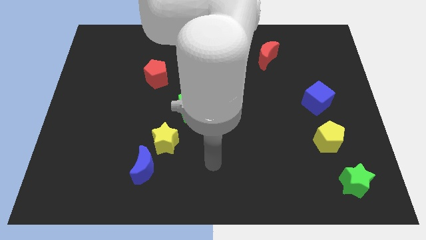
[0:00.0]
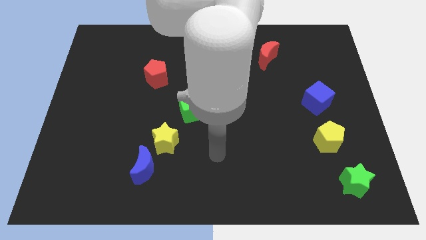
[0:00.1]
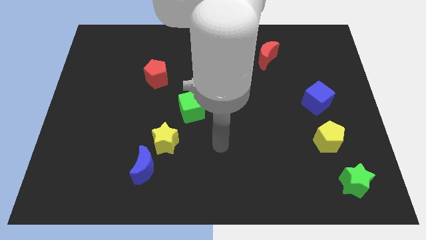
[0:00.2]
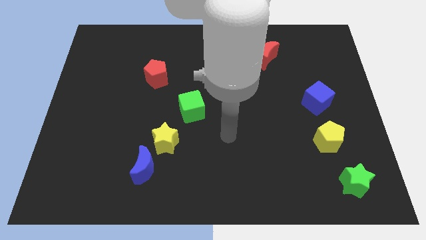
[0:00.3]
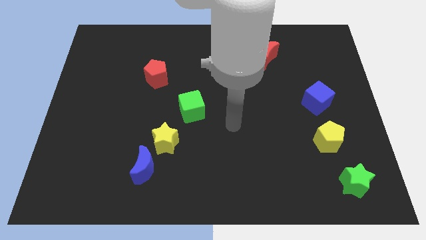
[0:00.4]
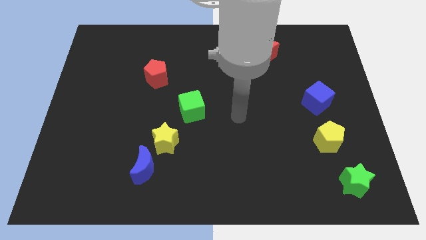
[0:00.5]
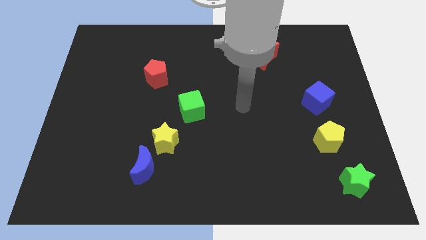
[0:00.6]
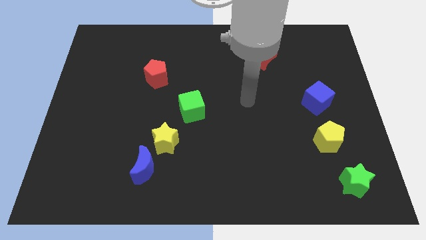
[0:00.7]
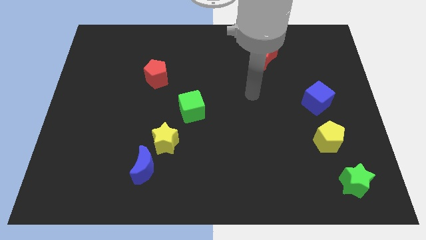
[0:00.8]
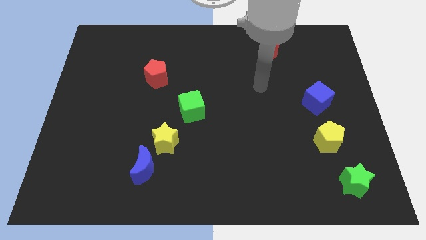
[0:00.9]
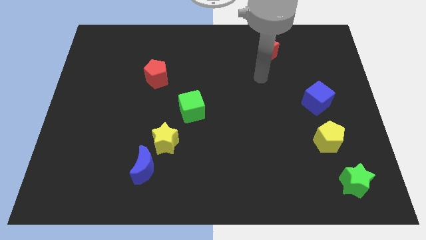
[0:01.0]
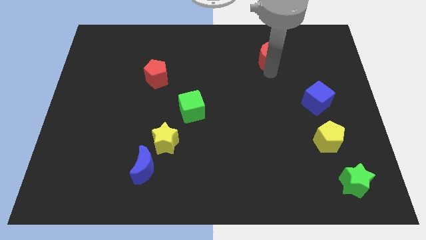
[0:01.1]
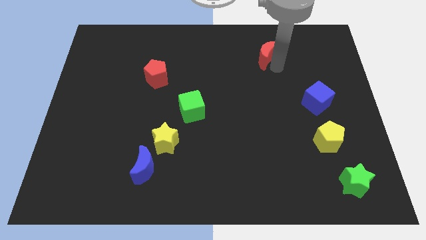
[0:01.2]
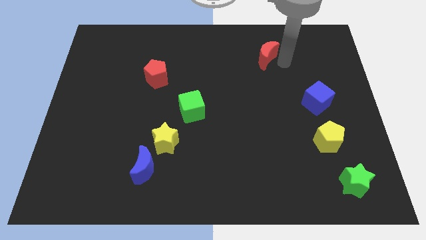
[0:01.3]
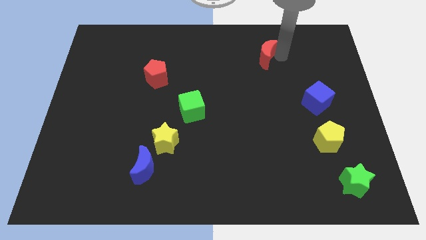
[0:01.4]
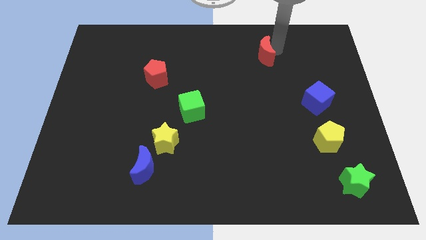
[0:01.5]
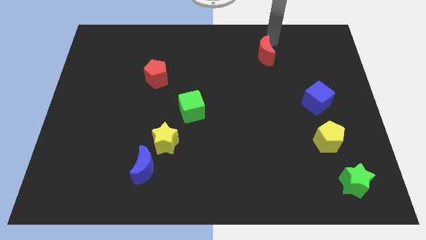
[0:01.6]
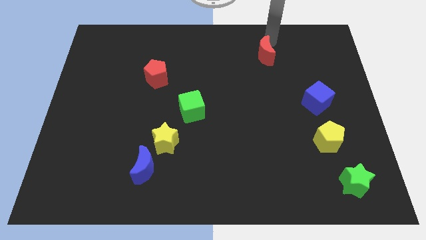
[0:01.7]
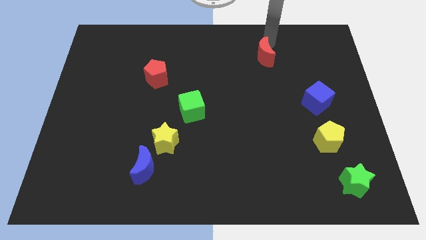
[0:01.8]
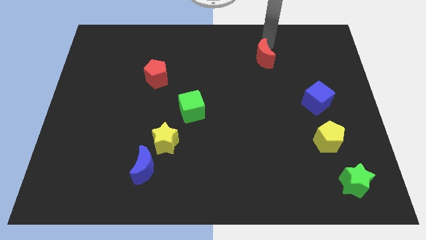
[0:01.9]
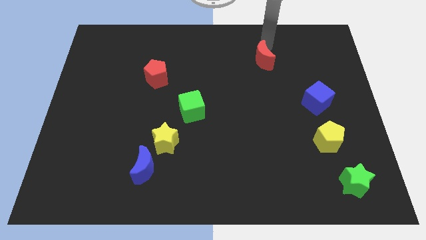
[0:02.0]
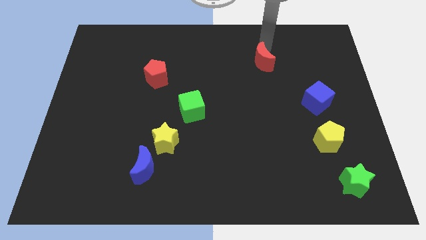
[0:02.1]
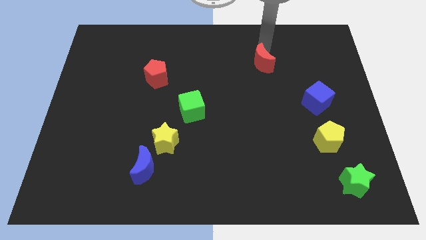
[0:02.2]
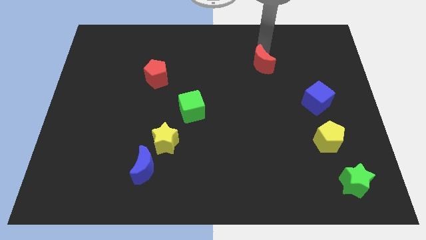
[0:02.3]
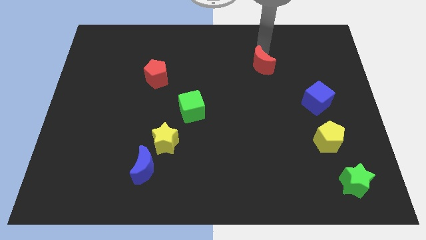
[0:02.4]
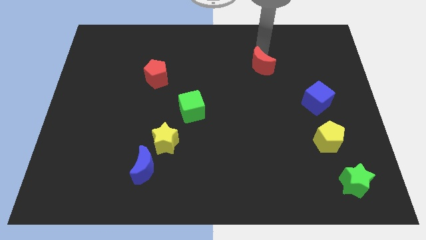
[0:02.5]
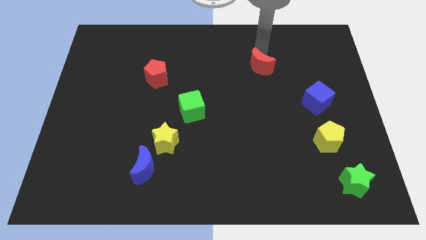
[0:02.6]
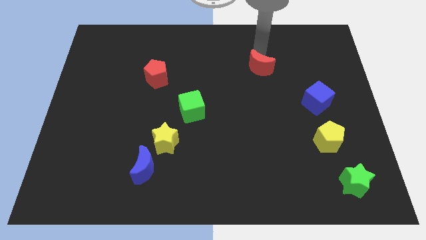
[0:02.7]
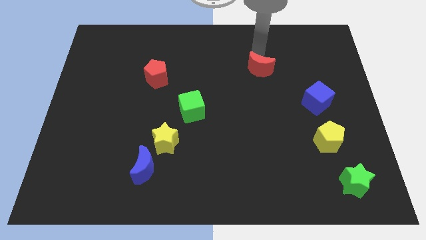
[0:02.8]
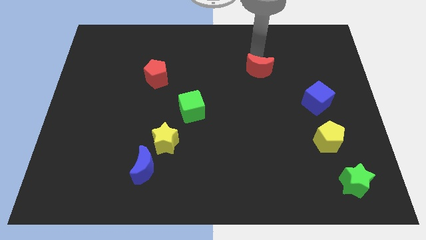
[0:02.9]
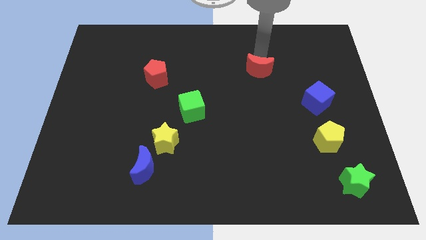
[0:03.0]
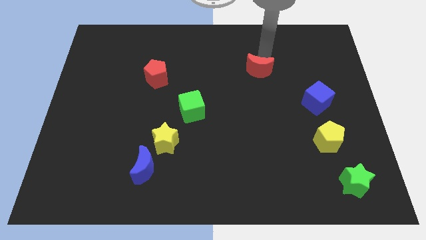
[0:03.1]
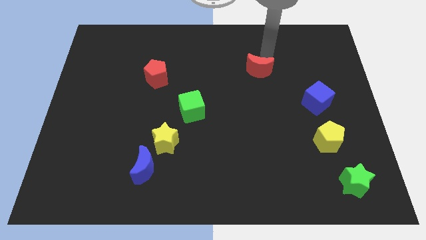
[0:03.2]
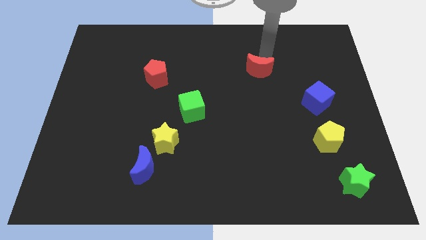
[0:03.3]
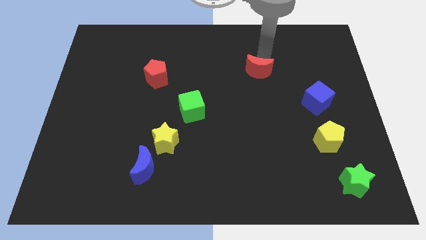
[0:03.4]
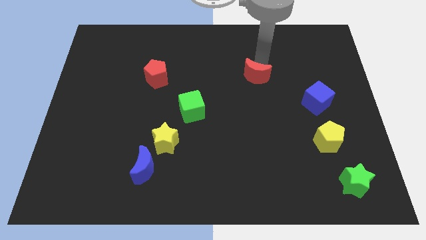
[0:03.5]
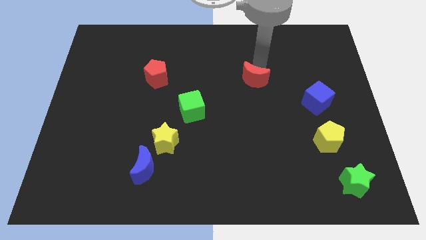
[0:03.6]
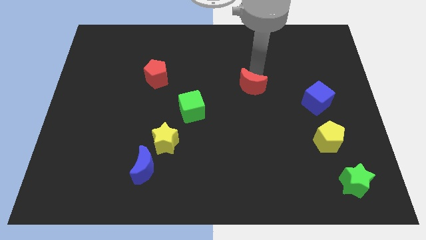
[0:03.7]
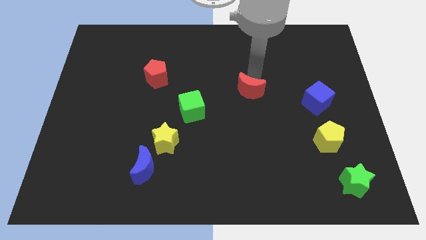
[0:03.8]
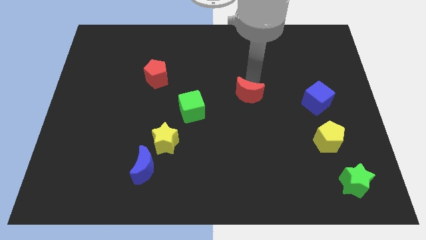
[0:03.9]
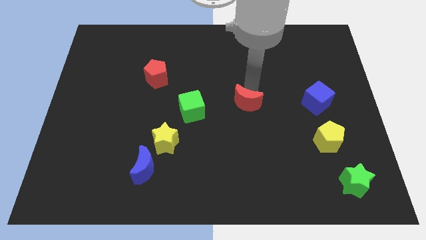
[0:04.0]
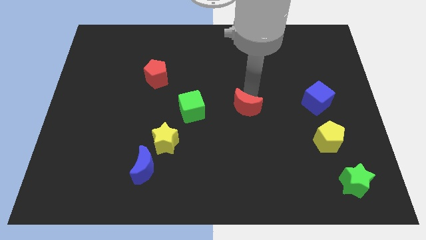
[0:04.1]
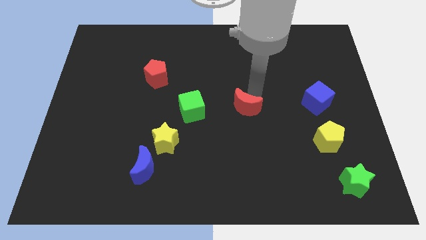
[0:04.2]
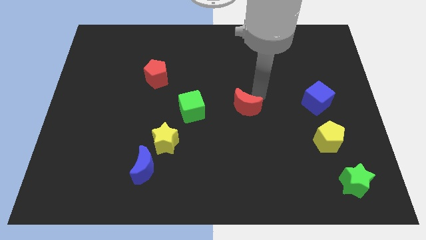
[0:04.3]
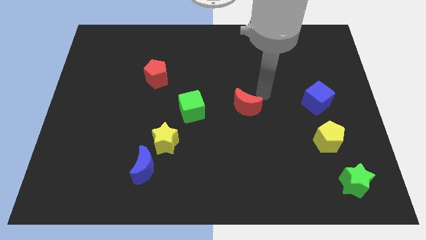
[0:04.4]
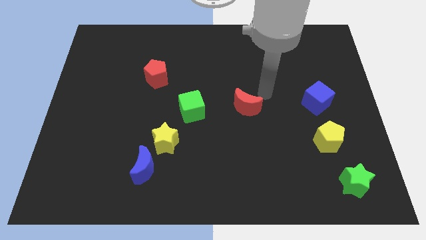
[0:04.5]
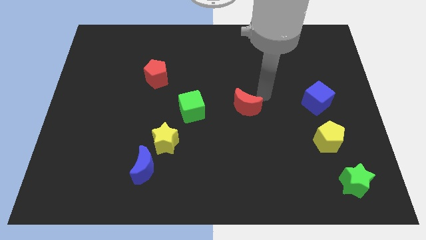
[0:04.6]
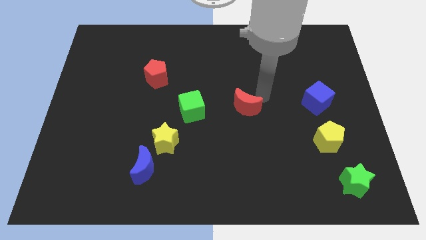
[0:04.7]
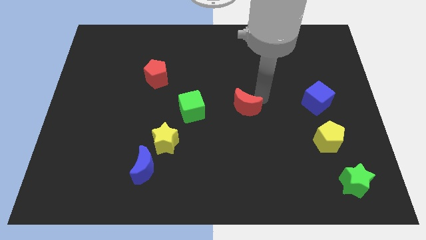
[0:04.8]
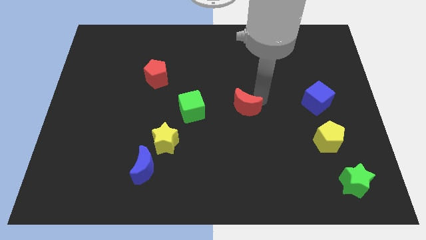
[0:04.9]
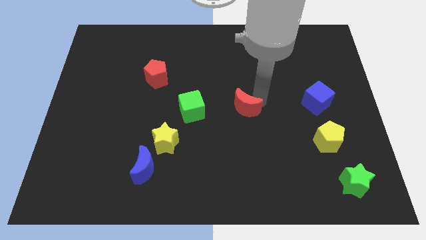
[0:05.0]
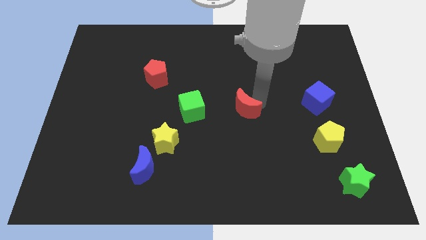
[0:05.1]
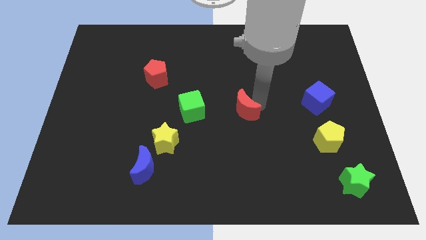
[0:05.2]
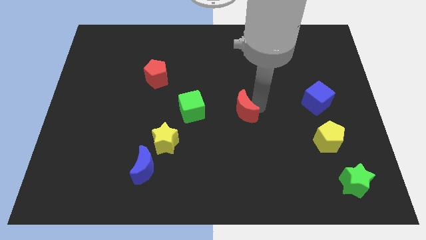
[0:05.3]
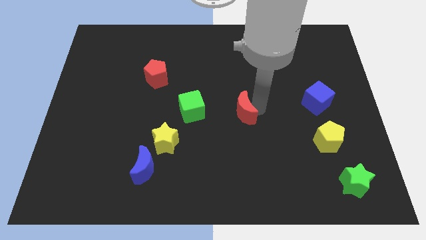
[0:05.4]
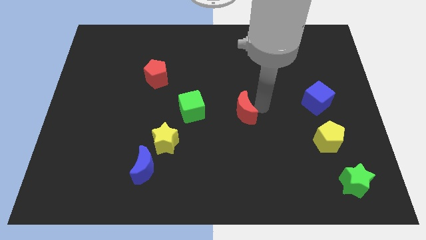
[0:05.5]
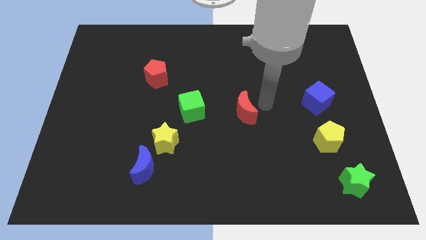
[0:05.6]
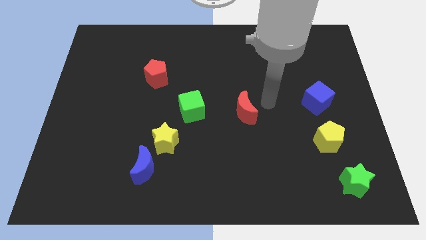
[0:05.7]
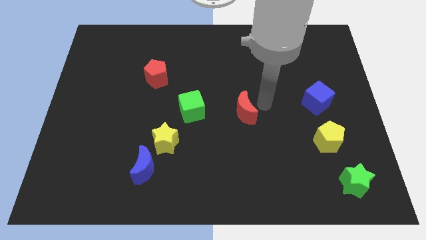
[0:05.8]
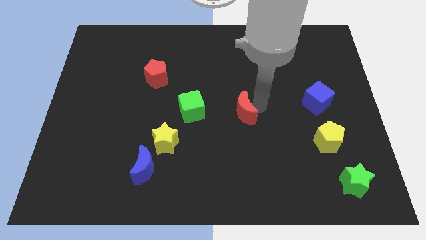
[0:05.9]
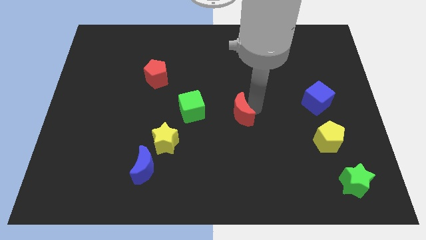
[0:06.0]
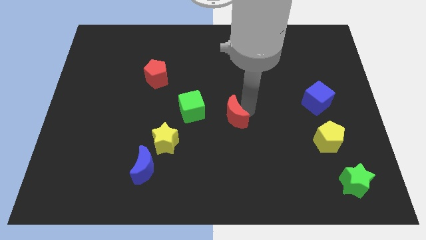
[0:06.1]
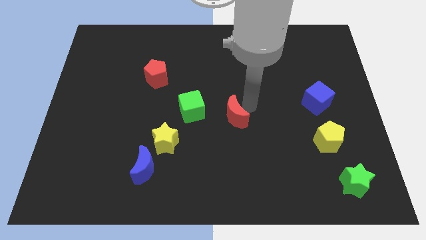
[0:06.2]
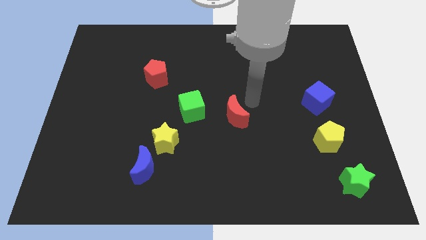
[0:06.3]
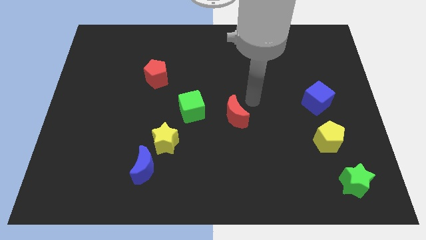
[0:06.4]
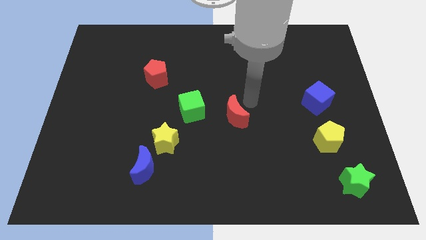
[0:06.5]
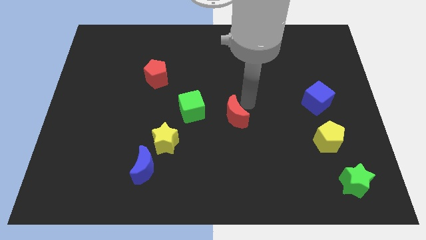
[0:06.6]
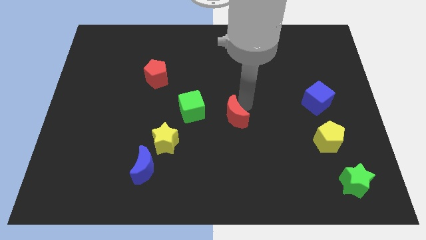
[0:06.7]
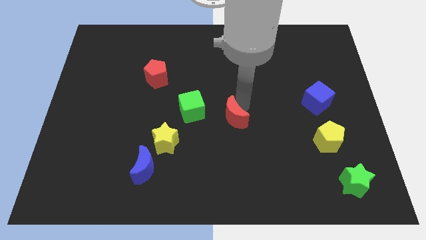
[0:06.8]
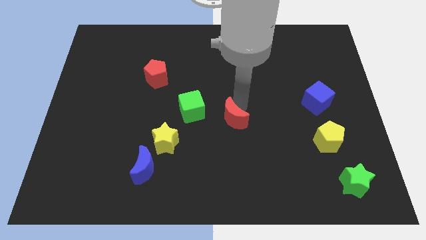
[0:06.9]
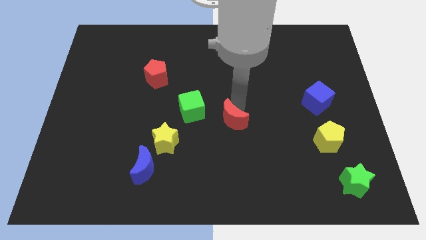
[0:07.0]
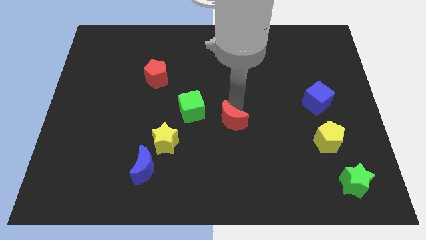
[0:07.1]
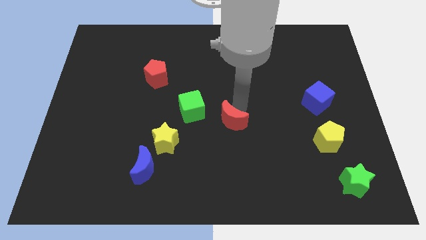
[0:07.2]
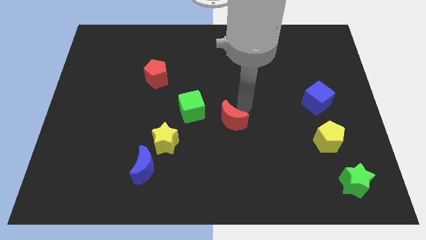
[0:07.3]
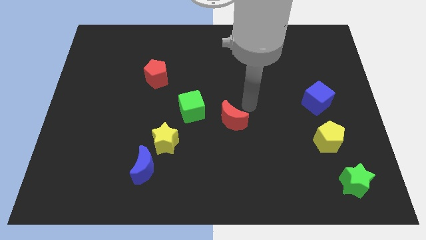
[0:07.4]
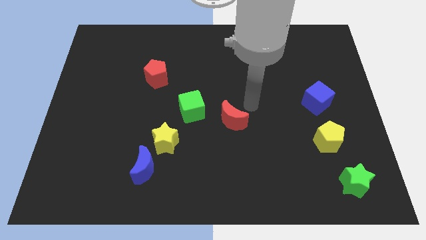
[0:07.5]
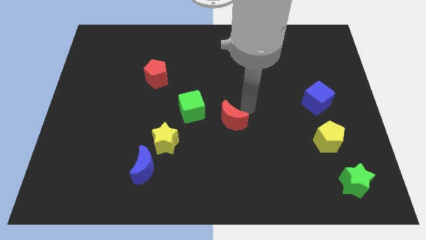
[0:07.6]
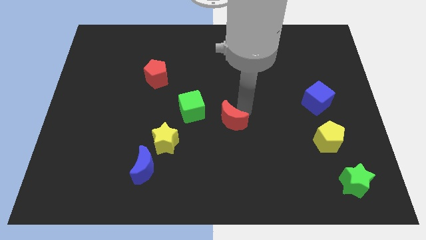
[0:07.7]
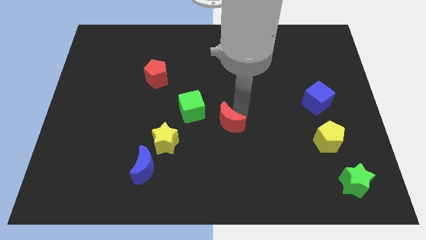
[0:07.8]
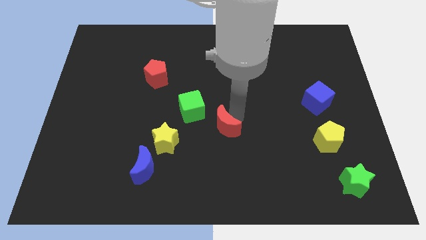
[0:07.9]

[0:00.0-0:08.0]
put the red moon just right of the yellow star

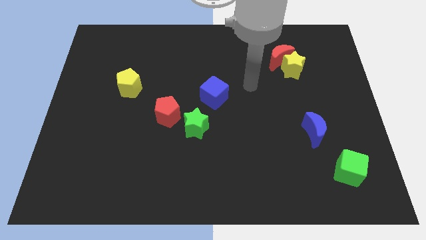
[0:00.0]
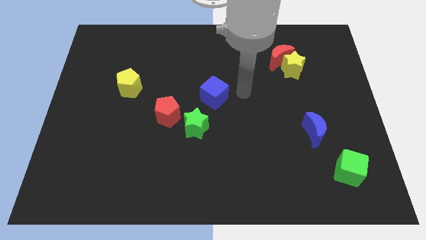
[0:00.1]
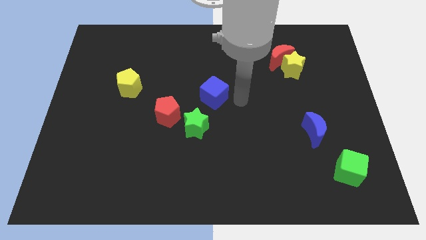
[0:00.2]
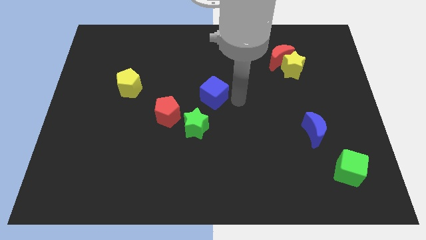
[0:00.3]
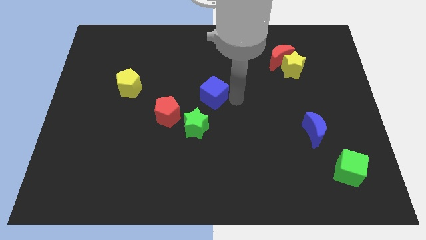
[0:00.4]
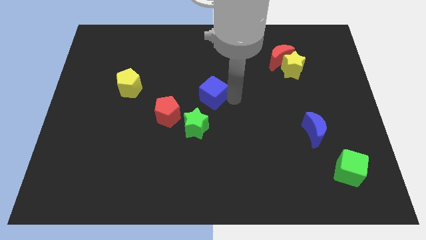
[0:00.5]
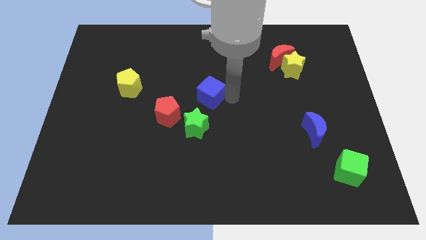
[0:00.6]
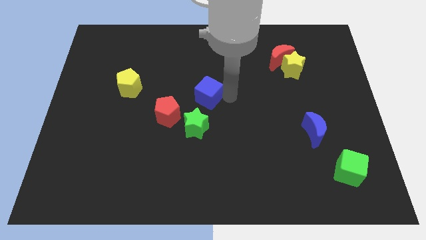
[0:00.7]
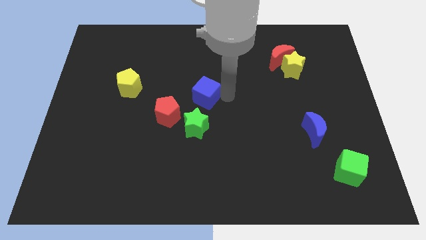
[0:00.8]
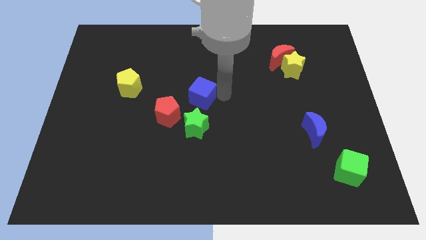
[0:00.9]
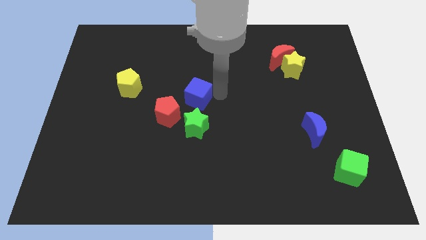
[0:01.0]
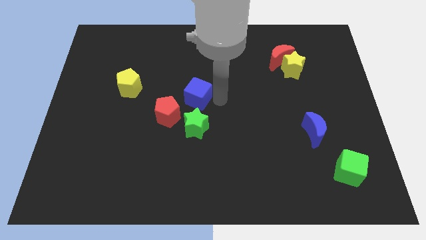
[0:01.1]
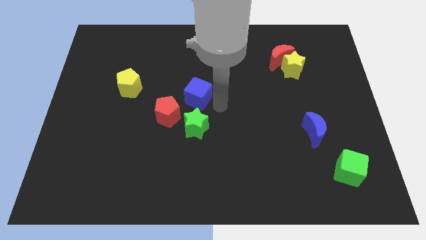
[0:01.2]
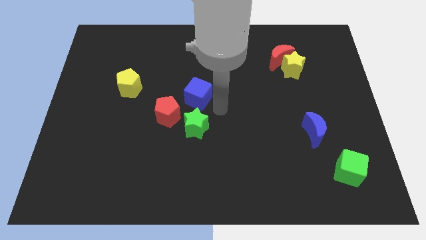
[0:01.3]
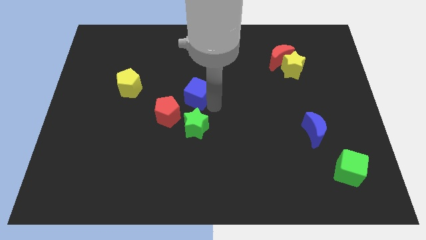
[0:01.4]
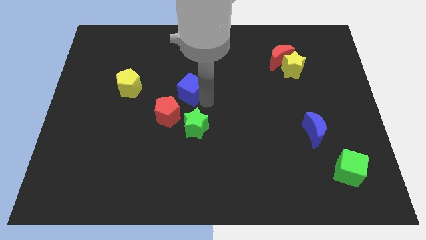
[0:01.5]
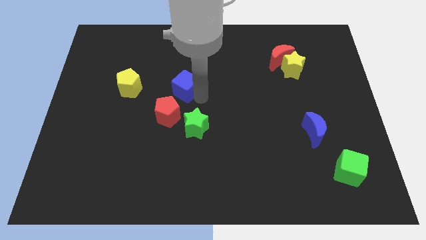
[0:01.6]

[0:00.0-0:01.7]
slide the blue cube above the red pentagon
